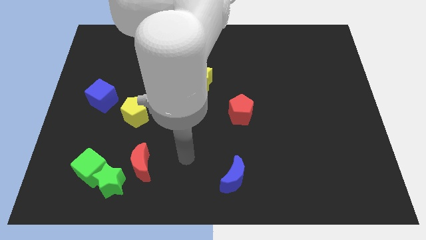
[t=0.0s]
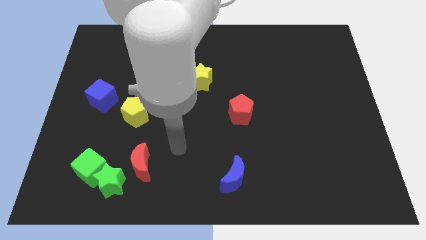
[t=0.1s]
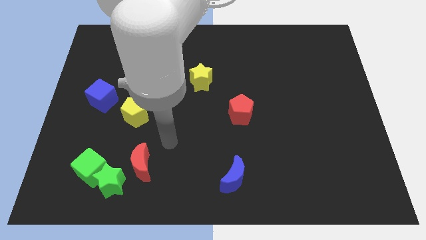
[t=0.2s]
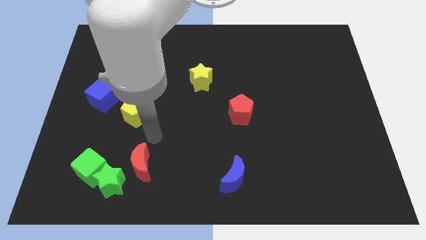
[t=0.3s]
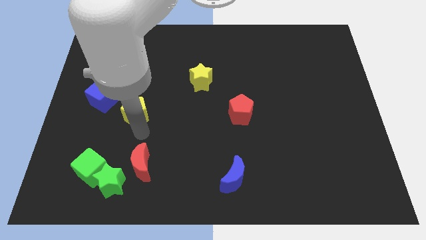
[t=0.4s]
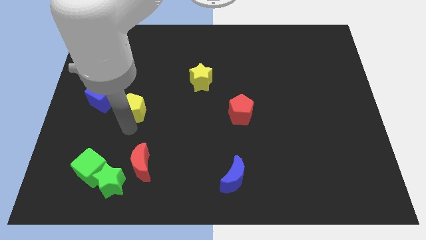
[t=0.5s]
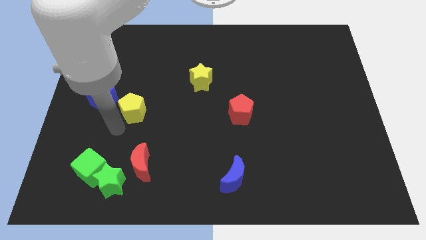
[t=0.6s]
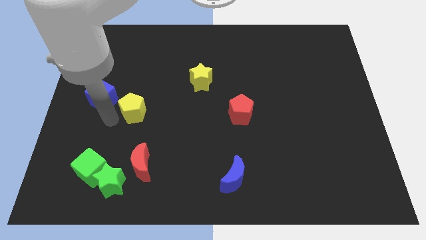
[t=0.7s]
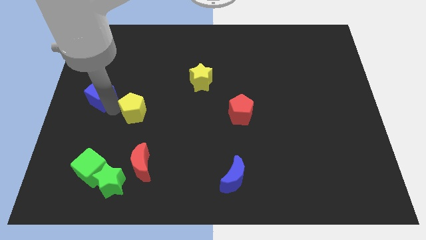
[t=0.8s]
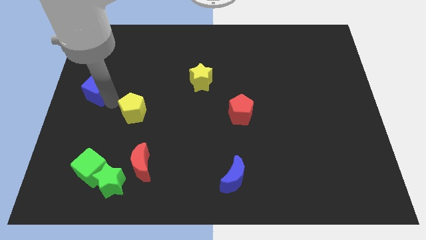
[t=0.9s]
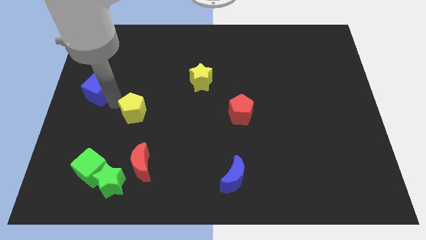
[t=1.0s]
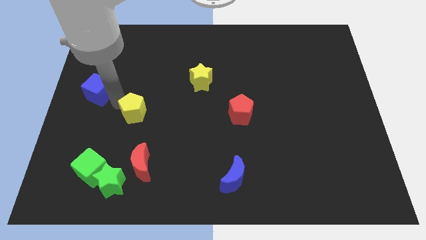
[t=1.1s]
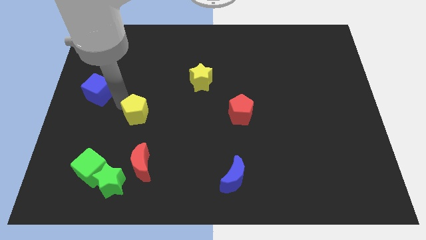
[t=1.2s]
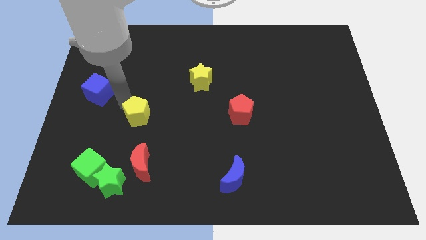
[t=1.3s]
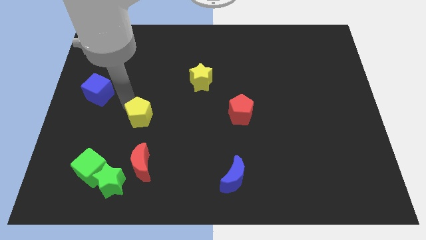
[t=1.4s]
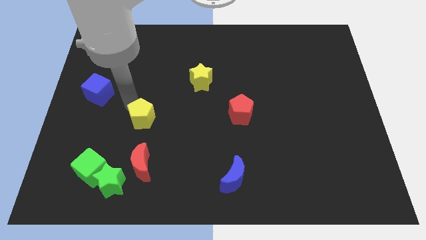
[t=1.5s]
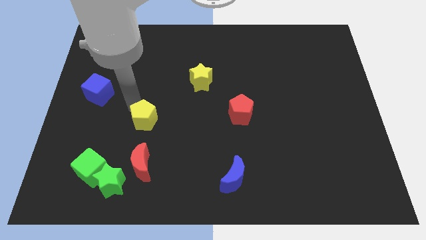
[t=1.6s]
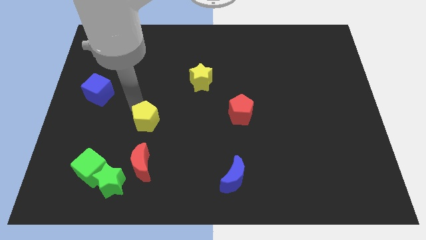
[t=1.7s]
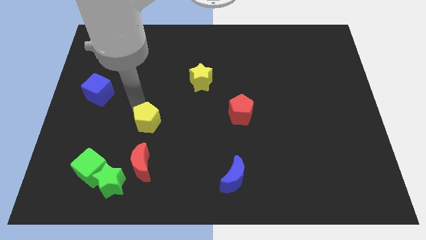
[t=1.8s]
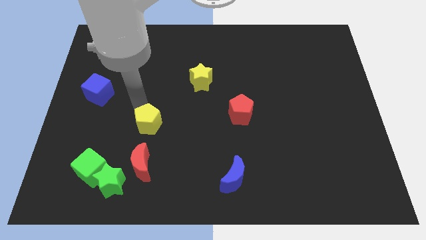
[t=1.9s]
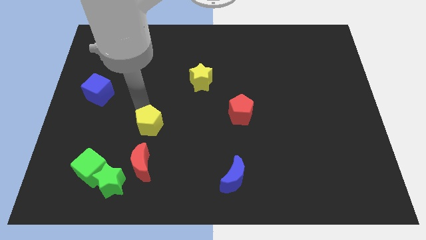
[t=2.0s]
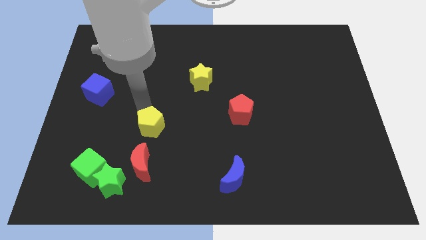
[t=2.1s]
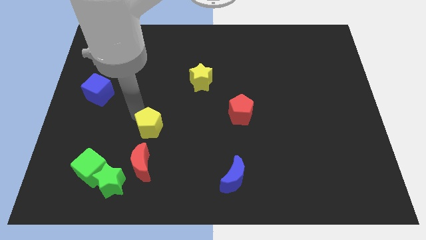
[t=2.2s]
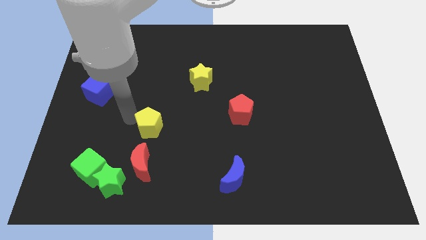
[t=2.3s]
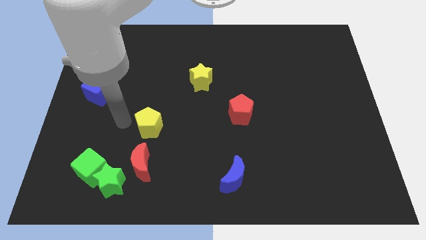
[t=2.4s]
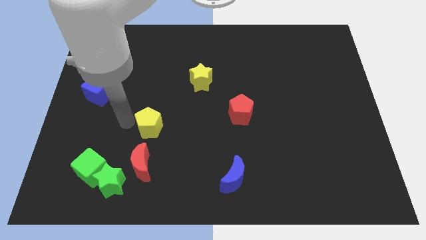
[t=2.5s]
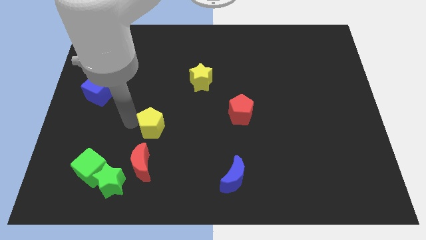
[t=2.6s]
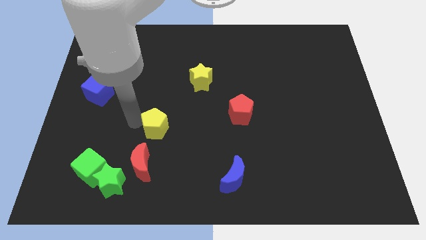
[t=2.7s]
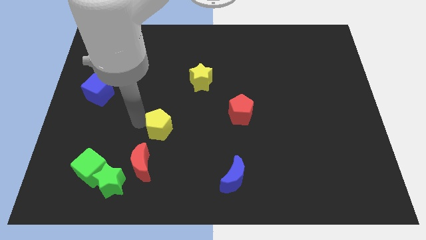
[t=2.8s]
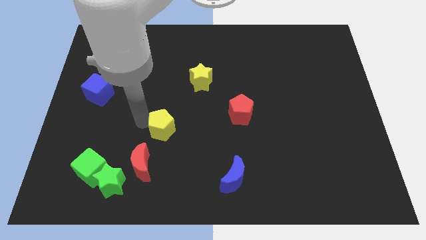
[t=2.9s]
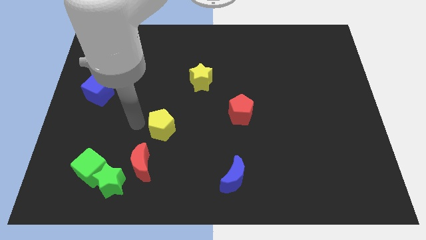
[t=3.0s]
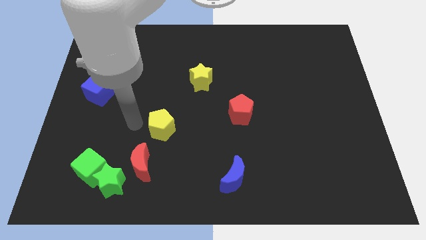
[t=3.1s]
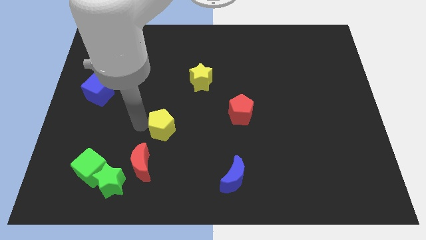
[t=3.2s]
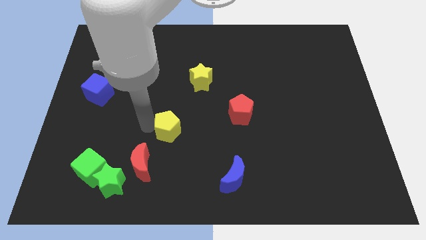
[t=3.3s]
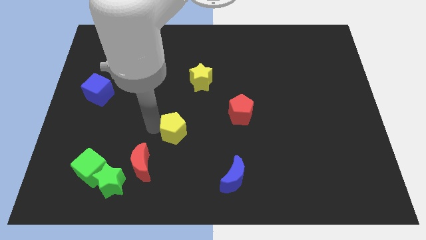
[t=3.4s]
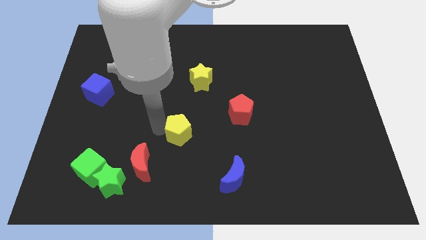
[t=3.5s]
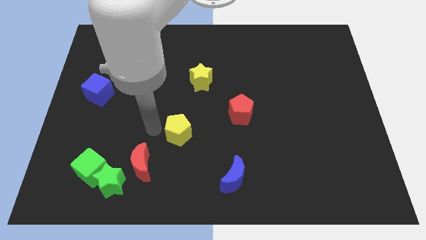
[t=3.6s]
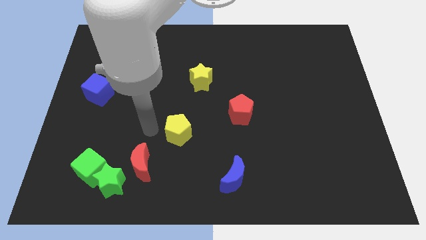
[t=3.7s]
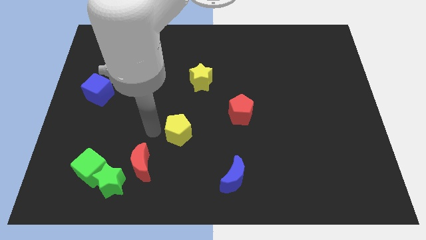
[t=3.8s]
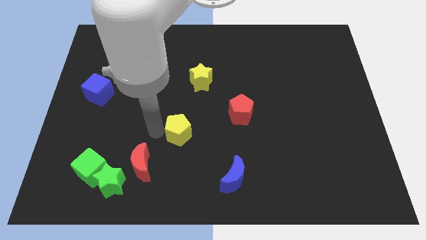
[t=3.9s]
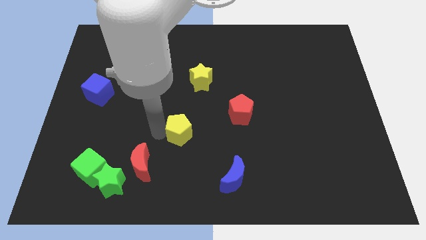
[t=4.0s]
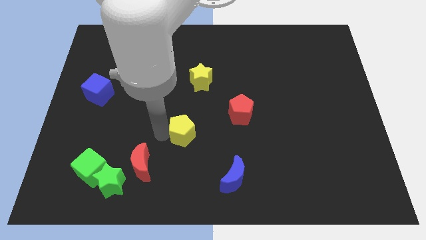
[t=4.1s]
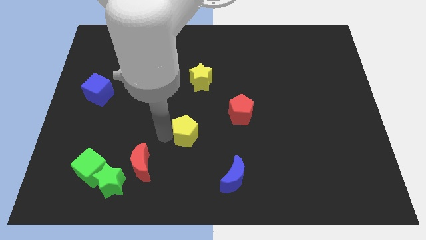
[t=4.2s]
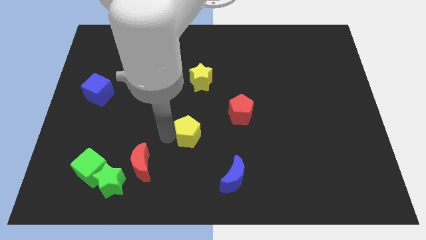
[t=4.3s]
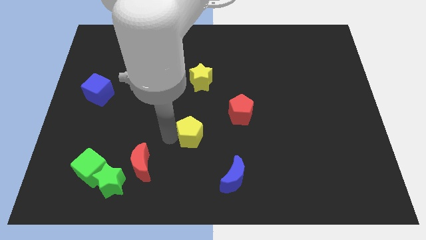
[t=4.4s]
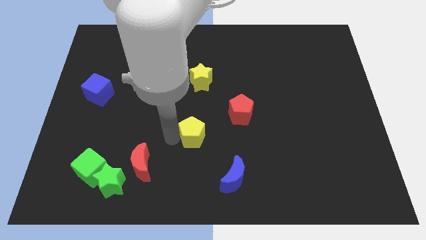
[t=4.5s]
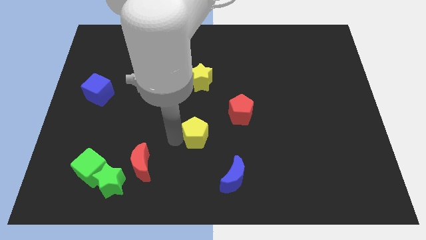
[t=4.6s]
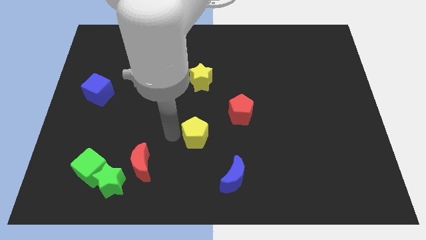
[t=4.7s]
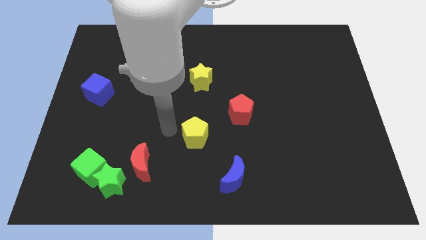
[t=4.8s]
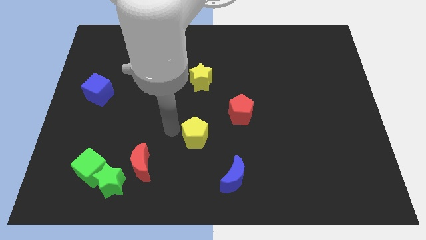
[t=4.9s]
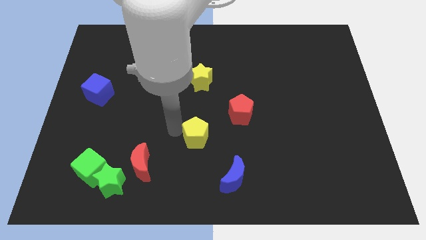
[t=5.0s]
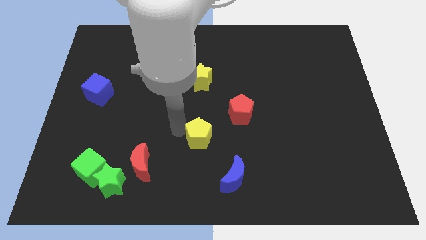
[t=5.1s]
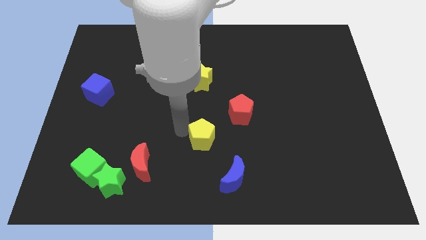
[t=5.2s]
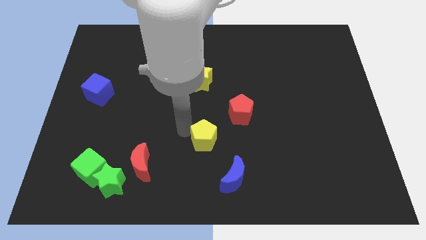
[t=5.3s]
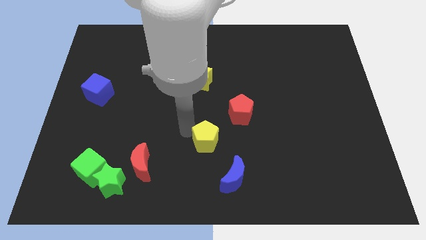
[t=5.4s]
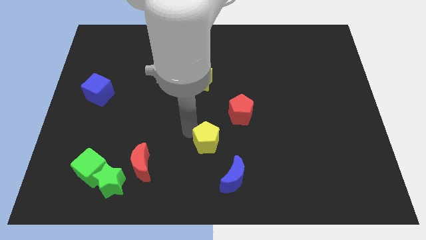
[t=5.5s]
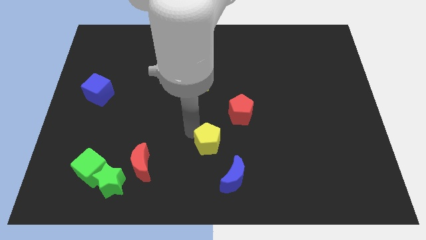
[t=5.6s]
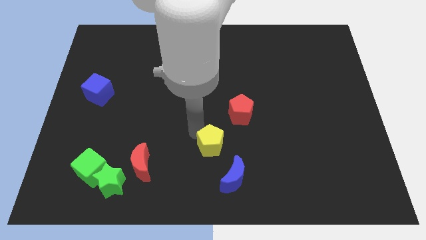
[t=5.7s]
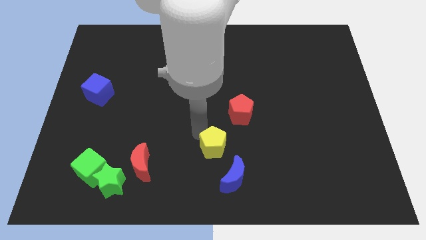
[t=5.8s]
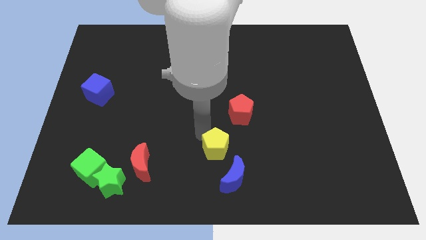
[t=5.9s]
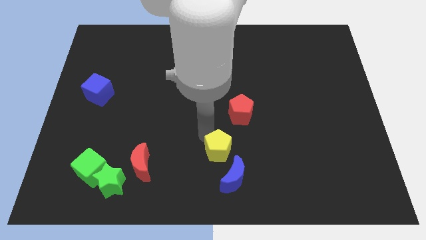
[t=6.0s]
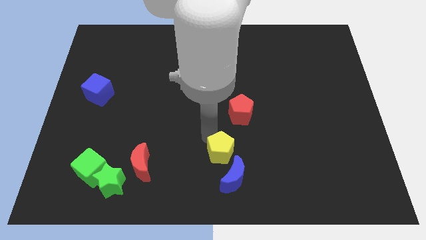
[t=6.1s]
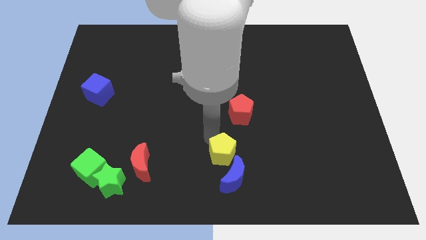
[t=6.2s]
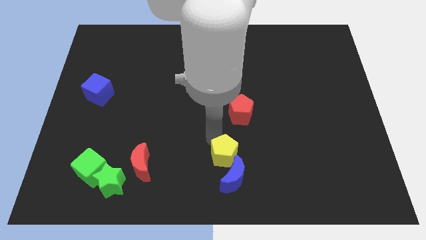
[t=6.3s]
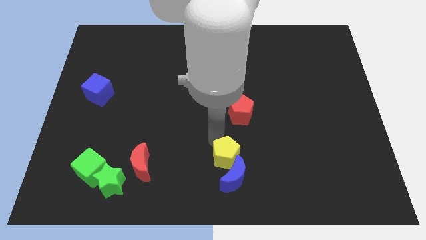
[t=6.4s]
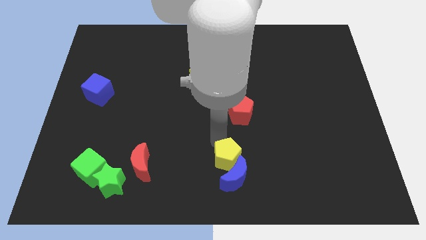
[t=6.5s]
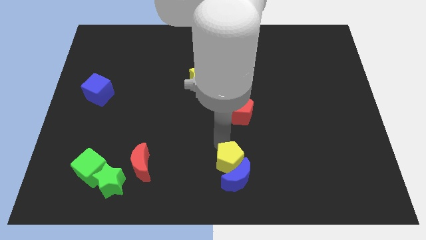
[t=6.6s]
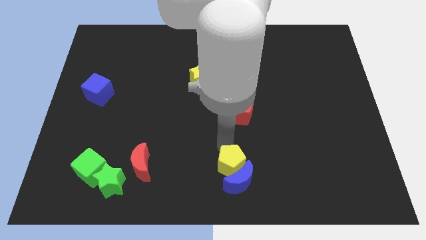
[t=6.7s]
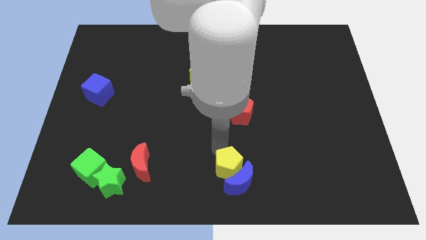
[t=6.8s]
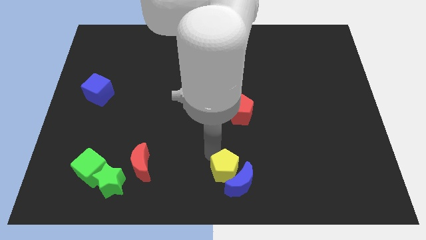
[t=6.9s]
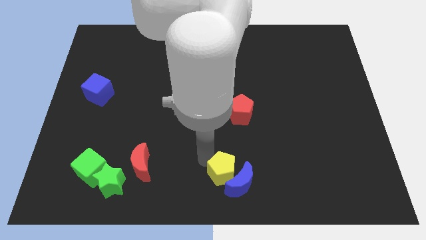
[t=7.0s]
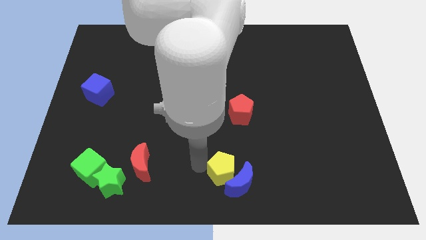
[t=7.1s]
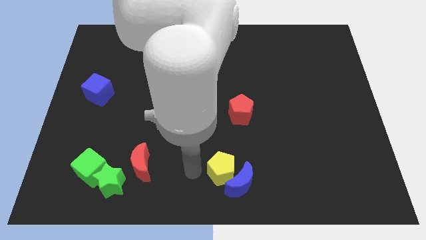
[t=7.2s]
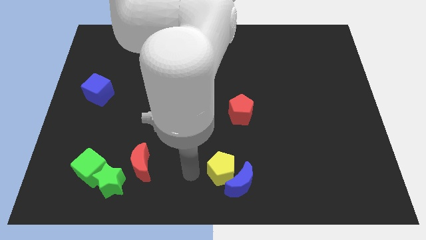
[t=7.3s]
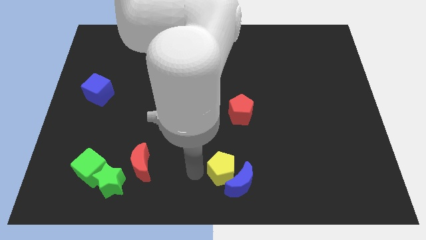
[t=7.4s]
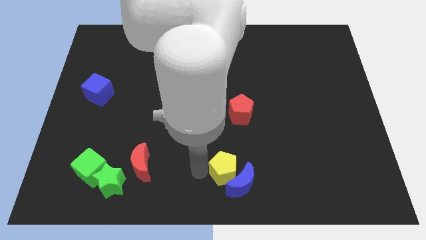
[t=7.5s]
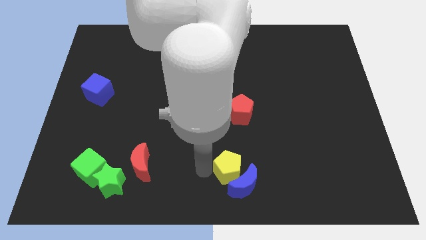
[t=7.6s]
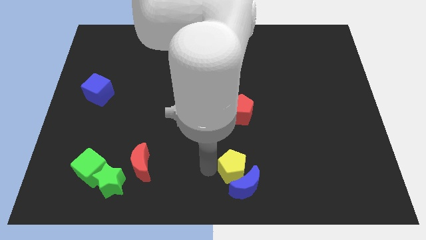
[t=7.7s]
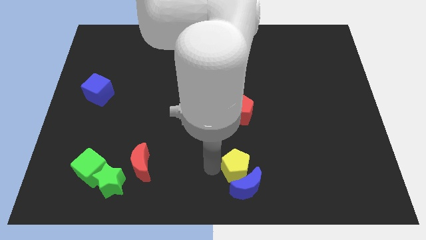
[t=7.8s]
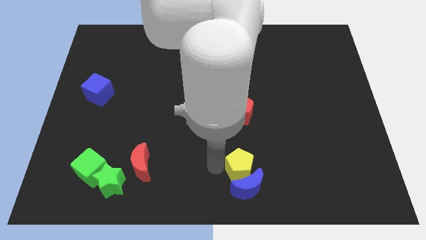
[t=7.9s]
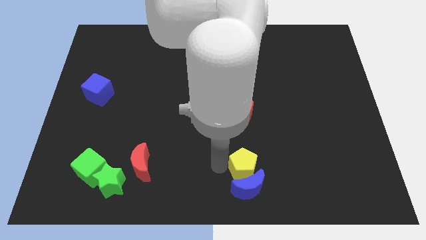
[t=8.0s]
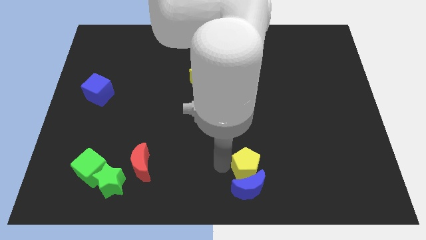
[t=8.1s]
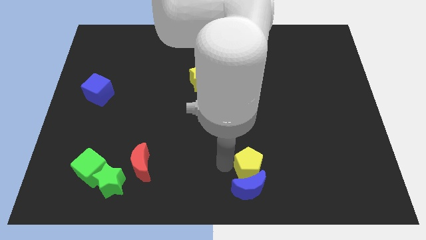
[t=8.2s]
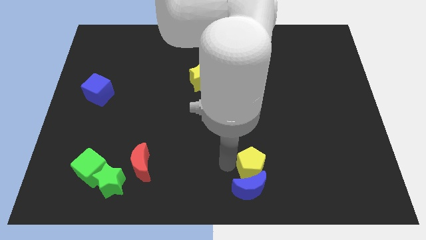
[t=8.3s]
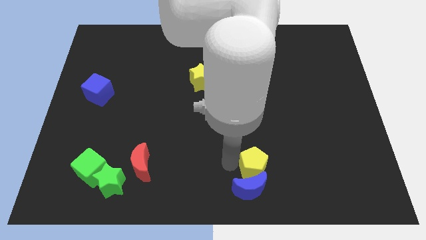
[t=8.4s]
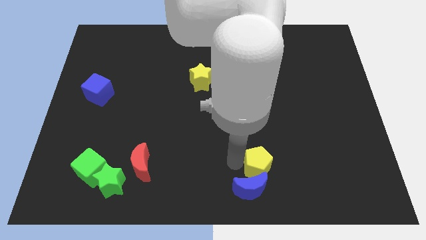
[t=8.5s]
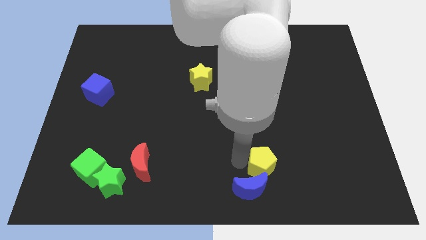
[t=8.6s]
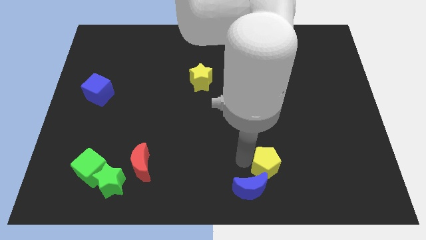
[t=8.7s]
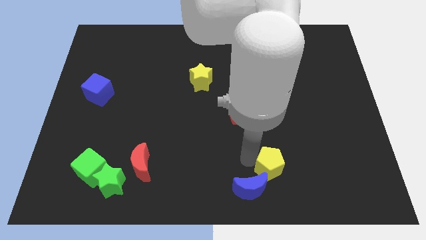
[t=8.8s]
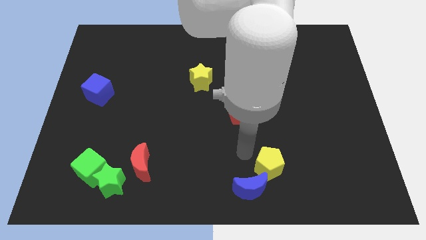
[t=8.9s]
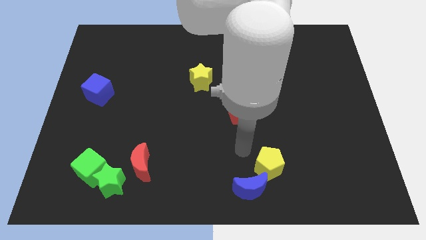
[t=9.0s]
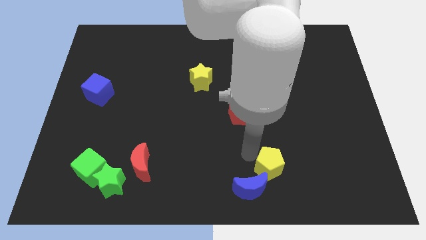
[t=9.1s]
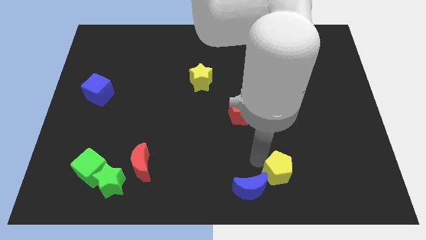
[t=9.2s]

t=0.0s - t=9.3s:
move the yellow pentagon just right of the blue moon
